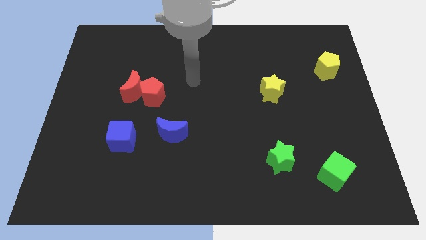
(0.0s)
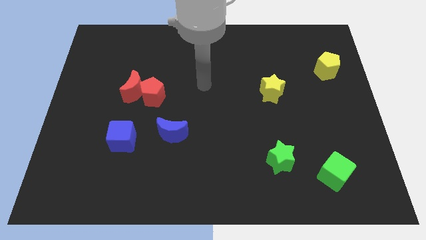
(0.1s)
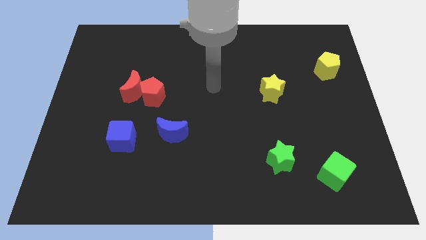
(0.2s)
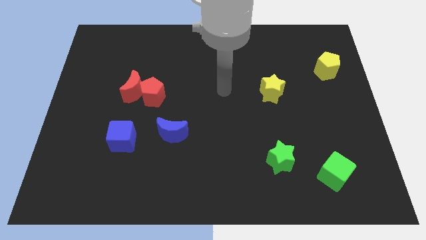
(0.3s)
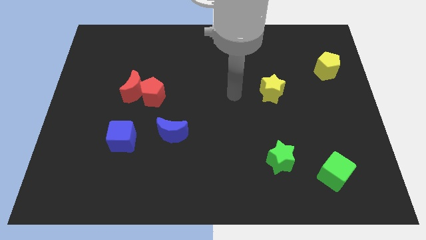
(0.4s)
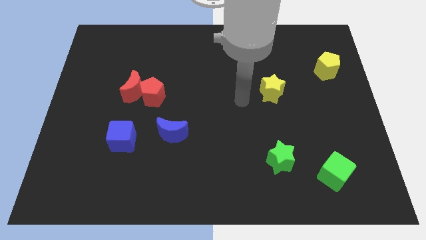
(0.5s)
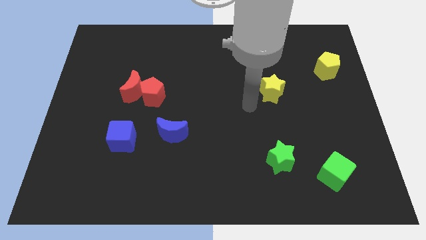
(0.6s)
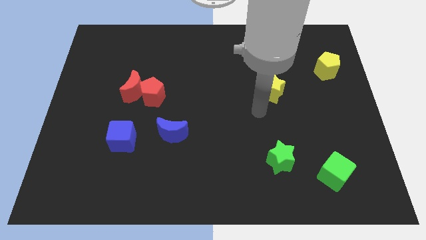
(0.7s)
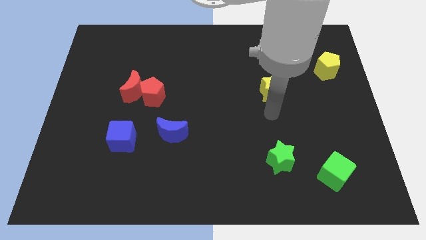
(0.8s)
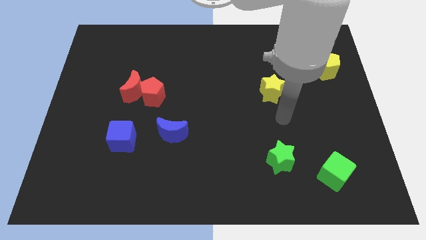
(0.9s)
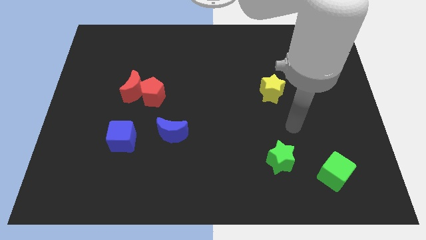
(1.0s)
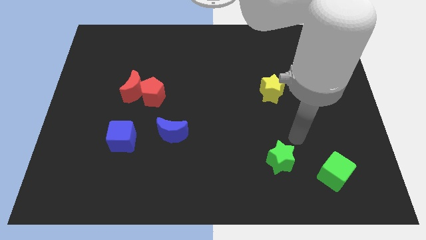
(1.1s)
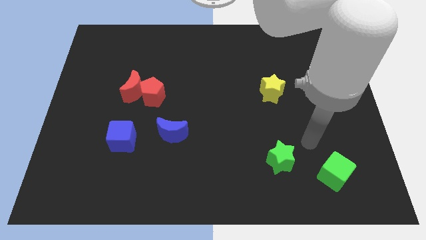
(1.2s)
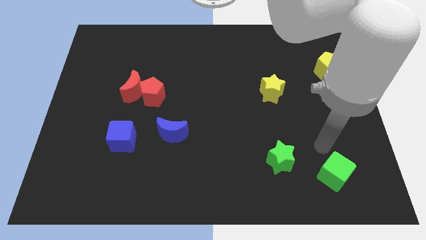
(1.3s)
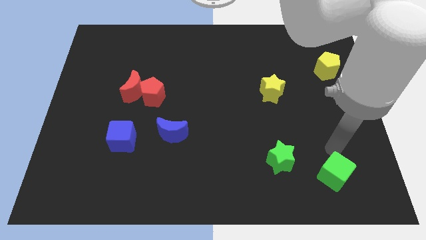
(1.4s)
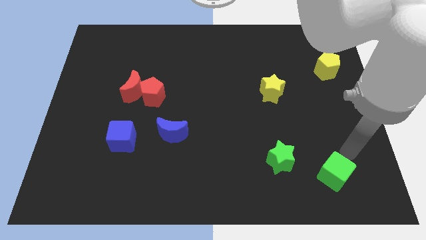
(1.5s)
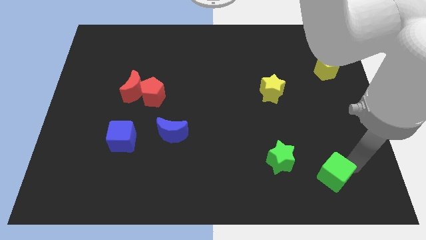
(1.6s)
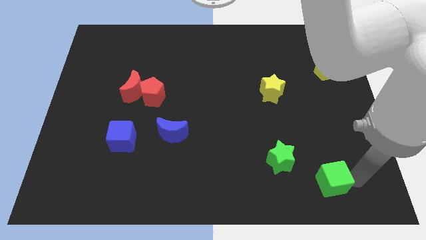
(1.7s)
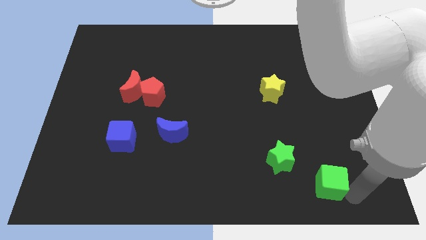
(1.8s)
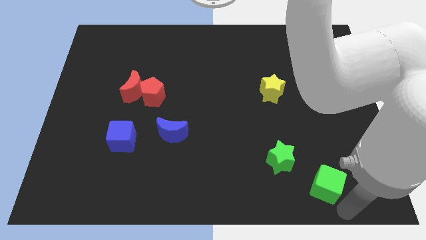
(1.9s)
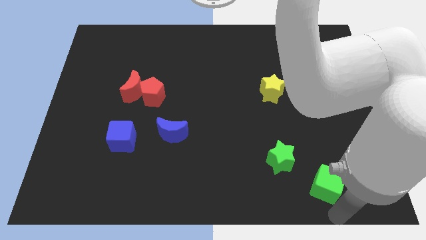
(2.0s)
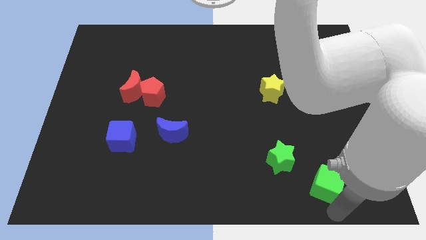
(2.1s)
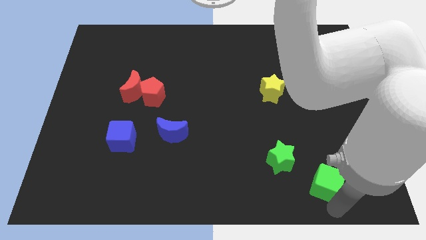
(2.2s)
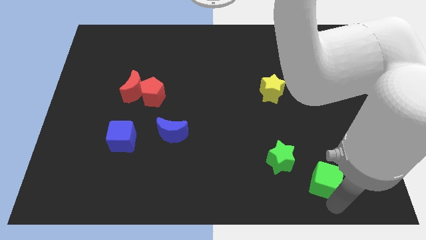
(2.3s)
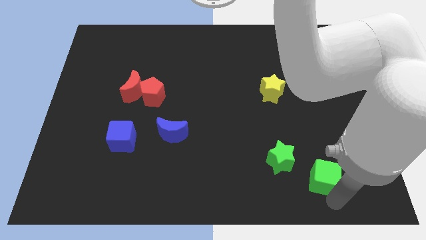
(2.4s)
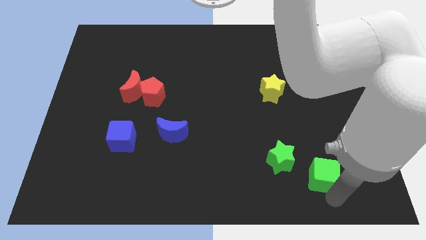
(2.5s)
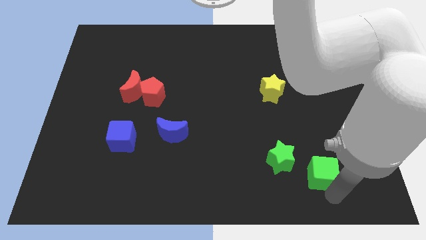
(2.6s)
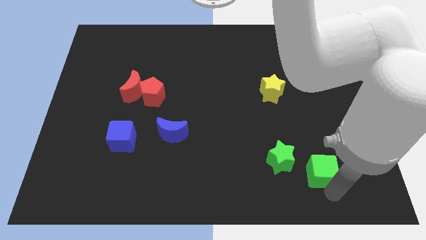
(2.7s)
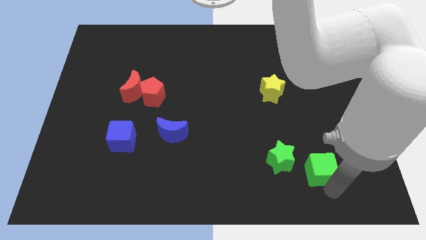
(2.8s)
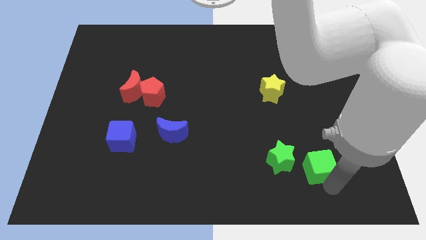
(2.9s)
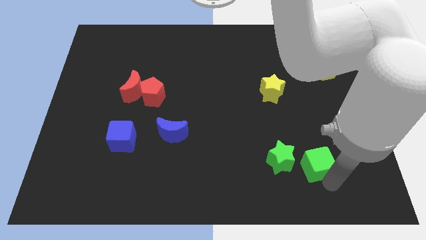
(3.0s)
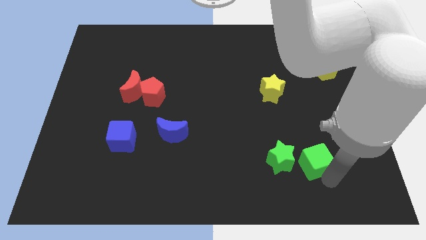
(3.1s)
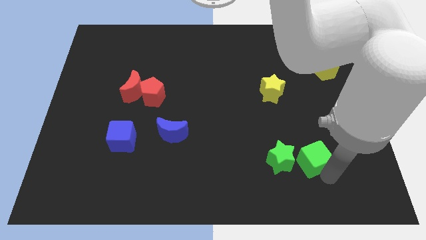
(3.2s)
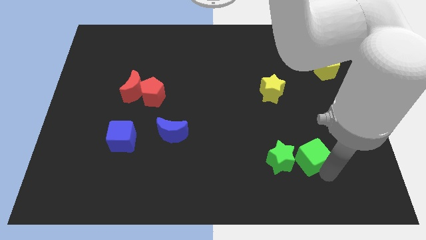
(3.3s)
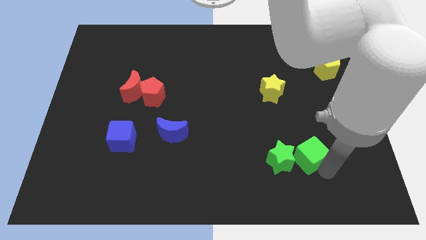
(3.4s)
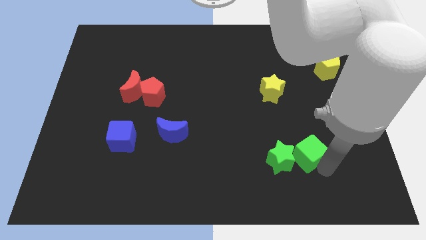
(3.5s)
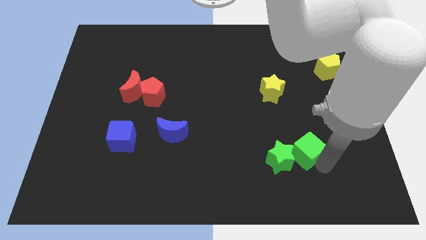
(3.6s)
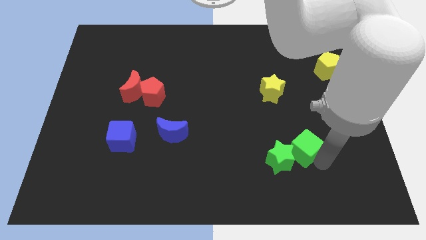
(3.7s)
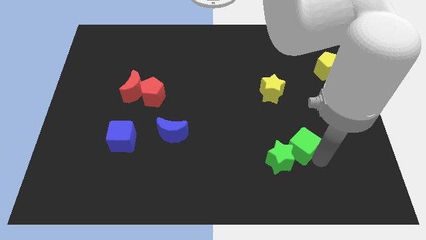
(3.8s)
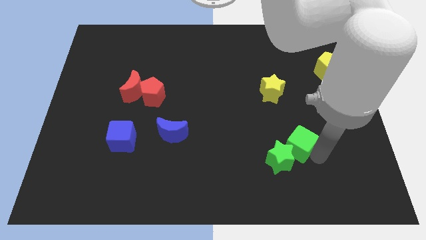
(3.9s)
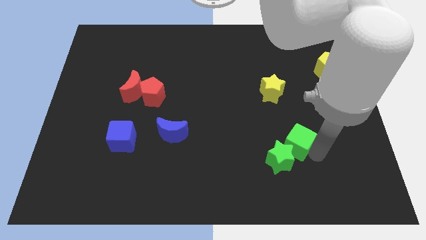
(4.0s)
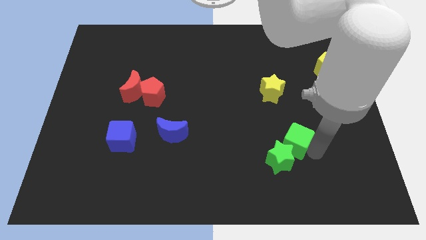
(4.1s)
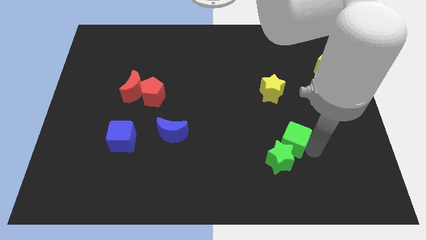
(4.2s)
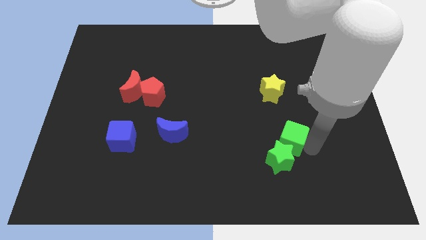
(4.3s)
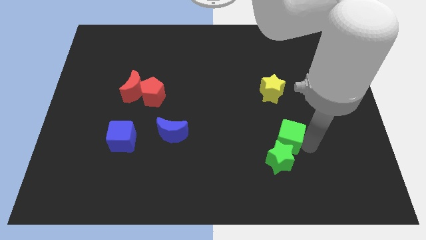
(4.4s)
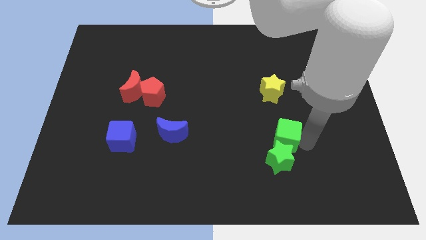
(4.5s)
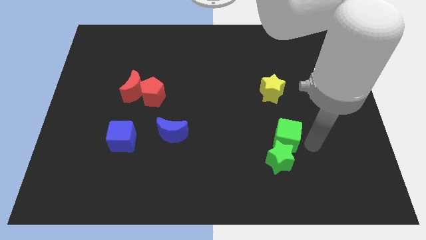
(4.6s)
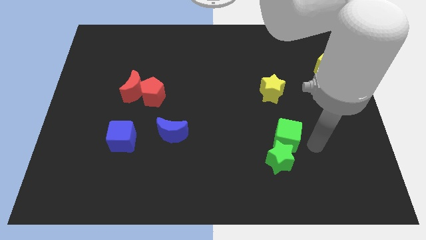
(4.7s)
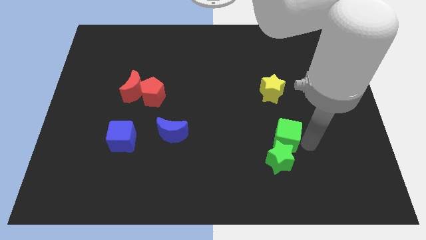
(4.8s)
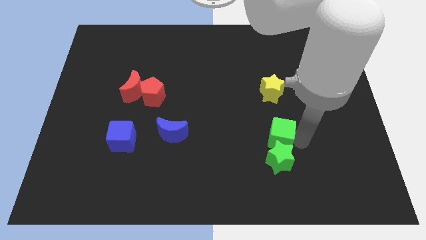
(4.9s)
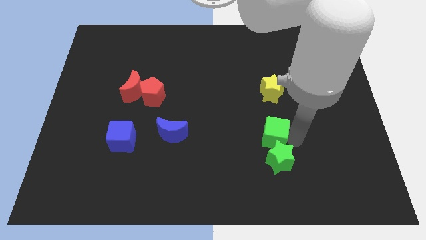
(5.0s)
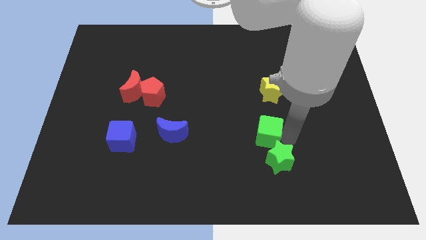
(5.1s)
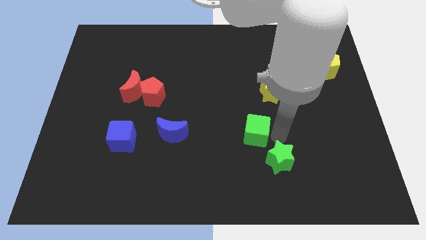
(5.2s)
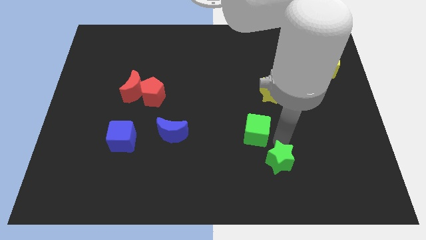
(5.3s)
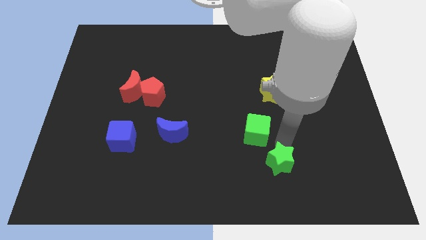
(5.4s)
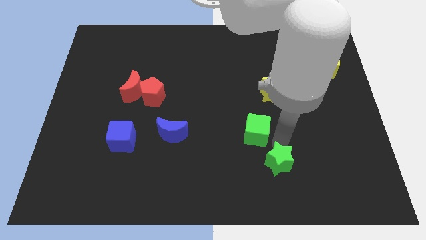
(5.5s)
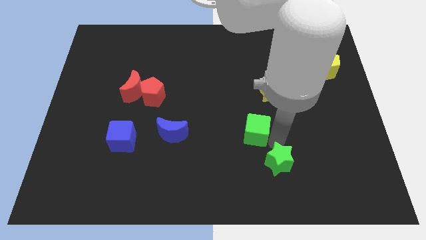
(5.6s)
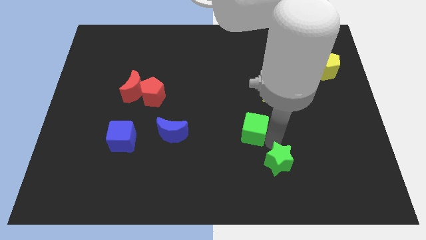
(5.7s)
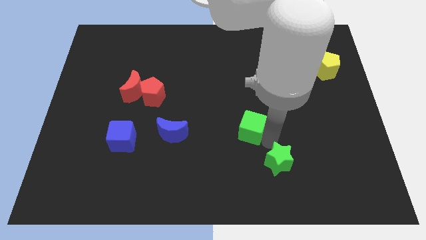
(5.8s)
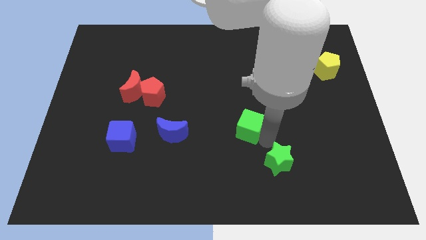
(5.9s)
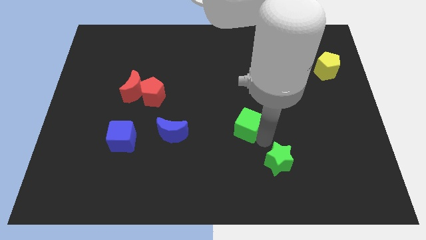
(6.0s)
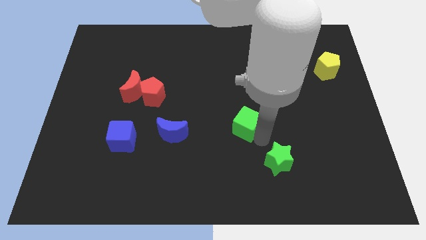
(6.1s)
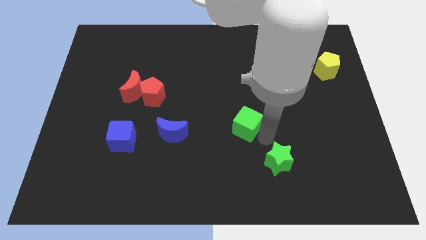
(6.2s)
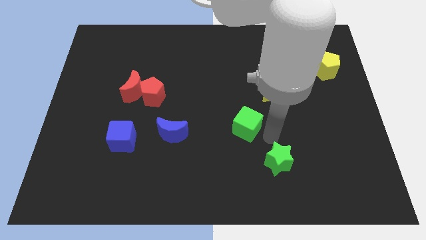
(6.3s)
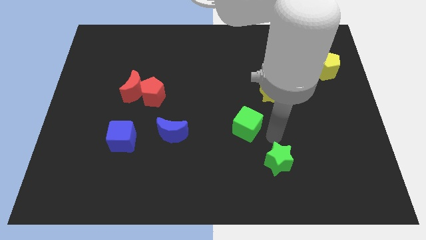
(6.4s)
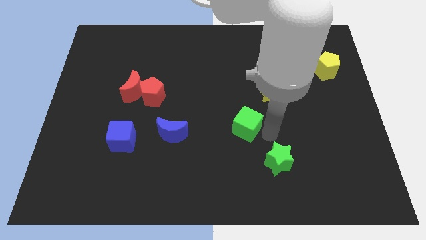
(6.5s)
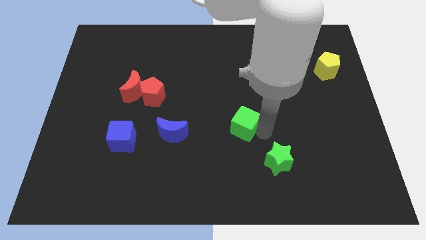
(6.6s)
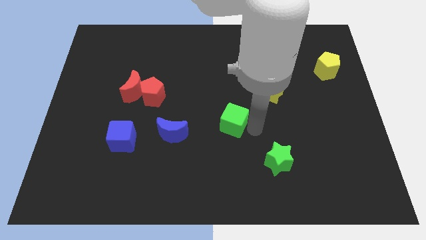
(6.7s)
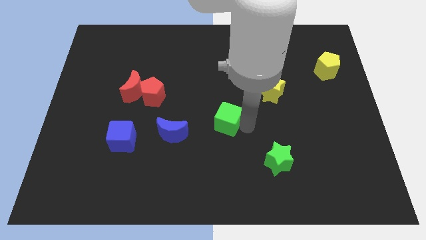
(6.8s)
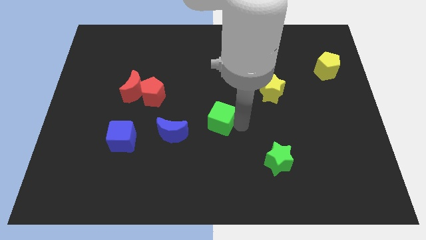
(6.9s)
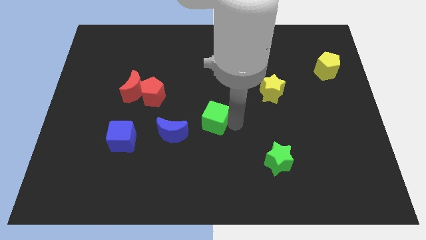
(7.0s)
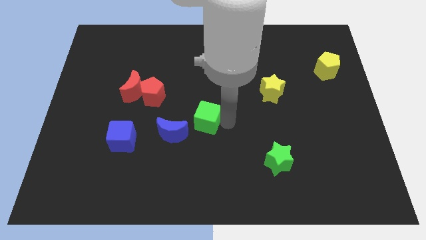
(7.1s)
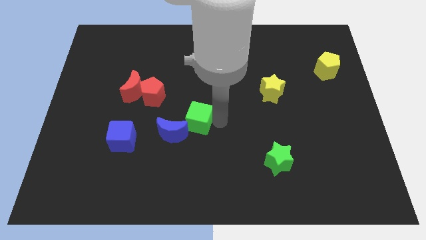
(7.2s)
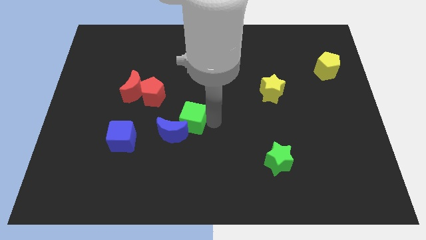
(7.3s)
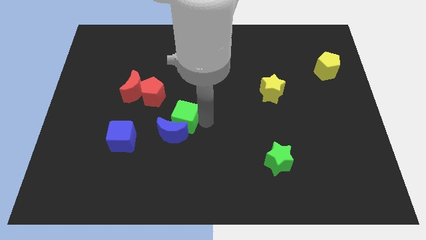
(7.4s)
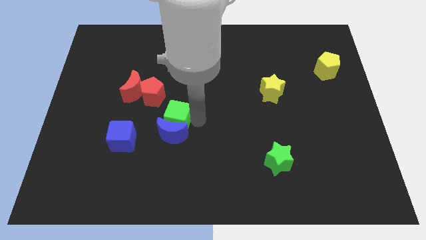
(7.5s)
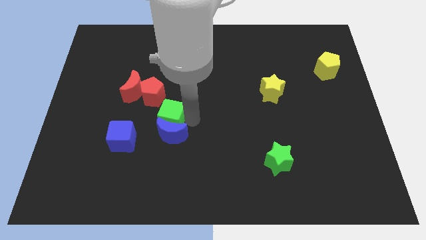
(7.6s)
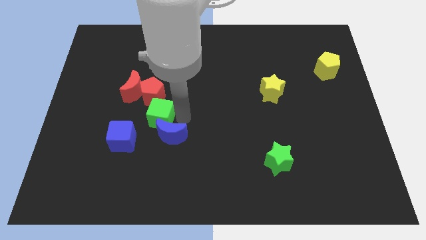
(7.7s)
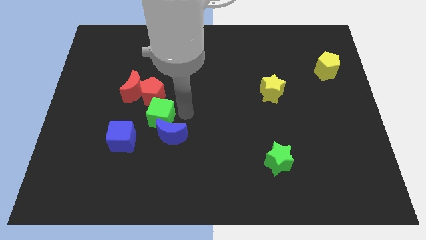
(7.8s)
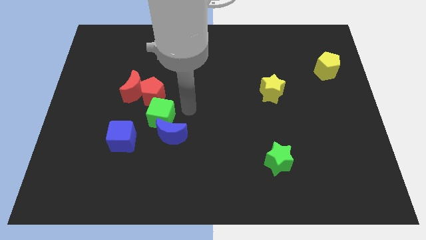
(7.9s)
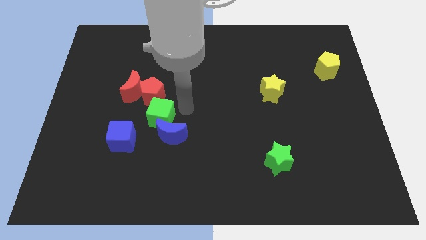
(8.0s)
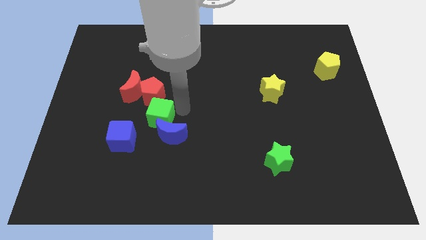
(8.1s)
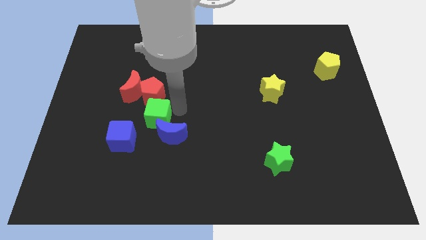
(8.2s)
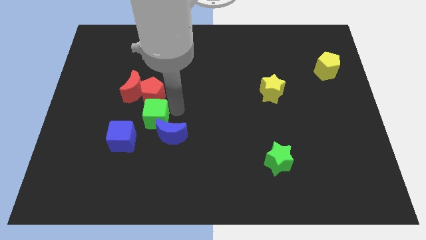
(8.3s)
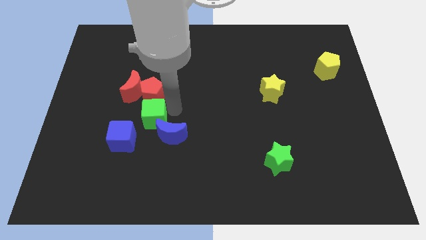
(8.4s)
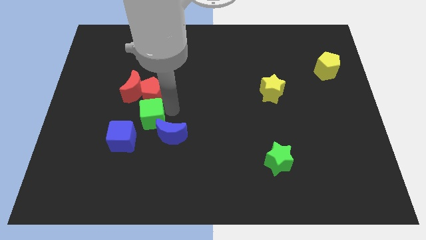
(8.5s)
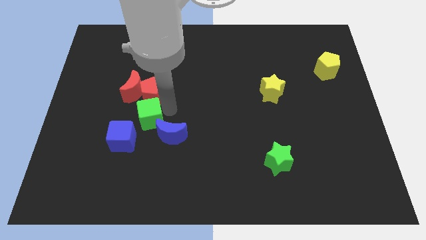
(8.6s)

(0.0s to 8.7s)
slide the green cube to the left side of the blue moon
